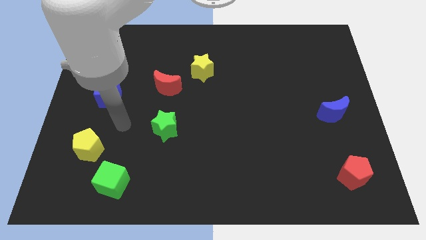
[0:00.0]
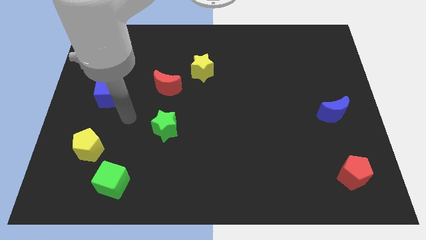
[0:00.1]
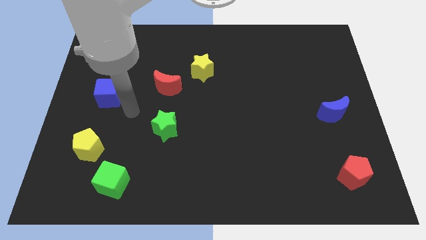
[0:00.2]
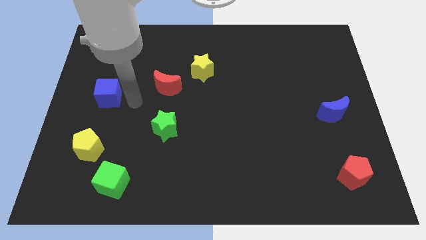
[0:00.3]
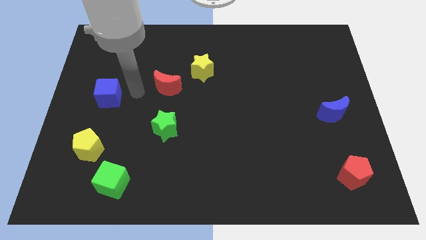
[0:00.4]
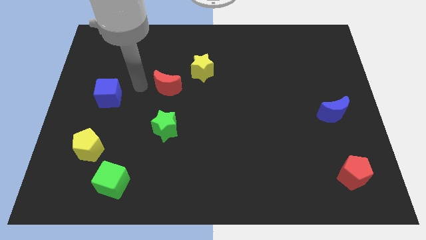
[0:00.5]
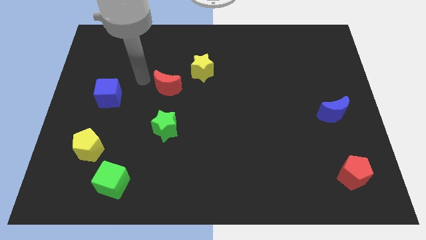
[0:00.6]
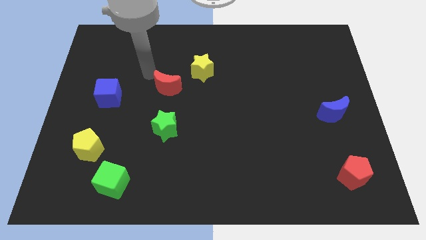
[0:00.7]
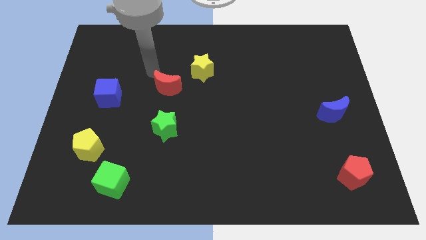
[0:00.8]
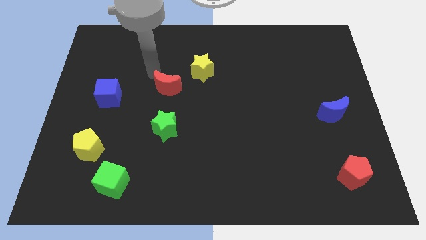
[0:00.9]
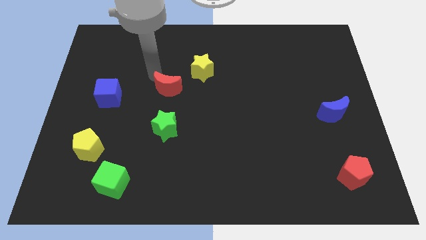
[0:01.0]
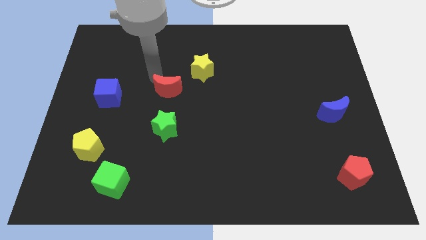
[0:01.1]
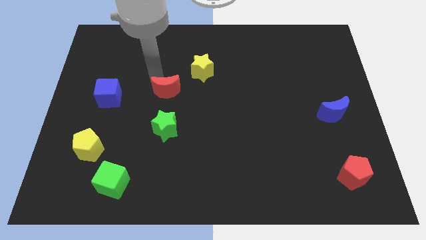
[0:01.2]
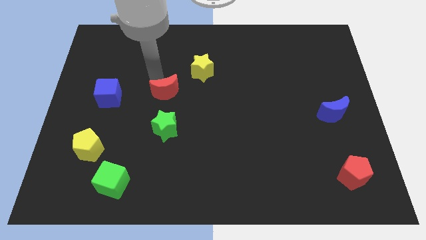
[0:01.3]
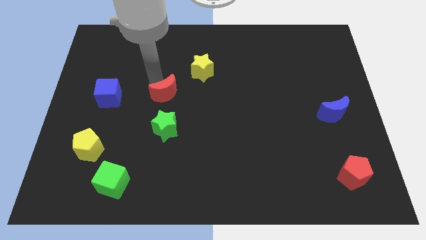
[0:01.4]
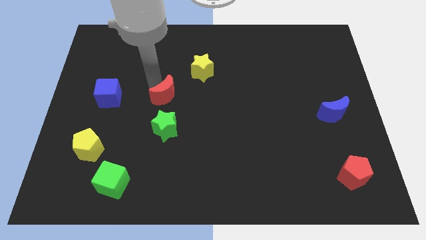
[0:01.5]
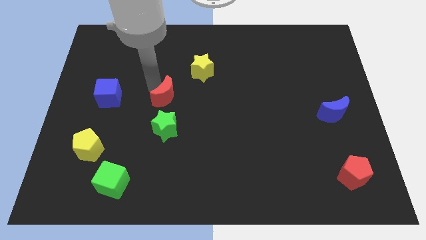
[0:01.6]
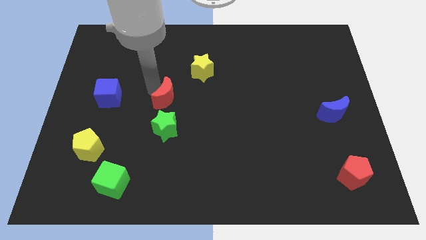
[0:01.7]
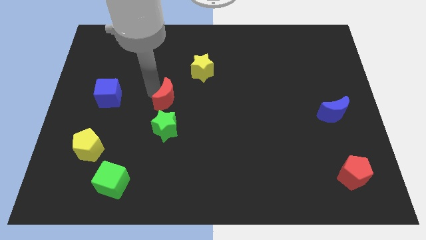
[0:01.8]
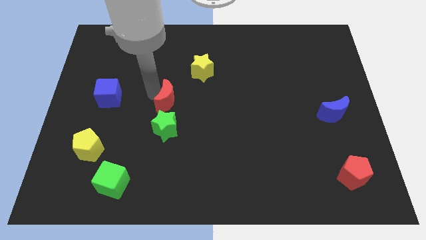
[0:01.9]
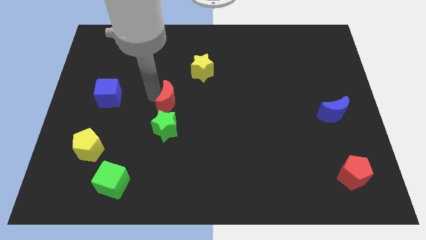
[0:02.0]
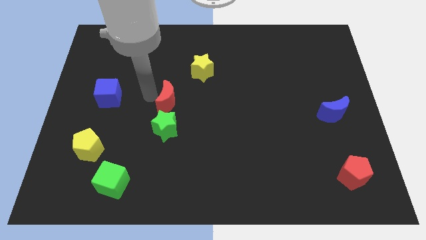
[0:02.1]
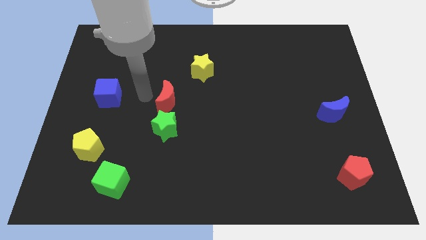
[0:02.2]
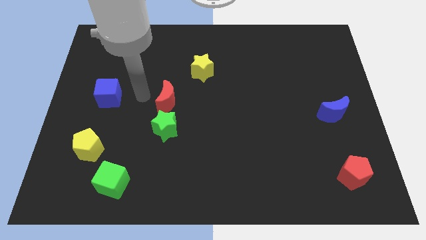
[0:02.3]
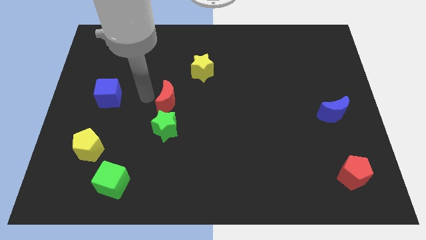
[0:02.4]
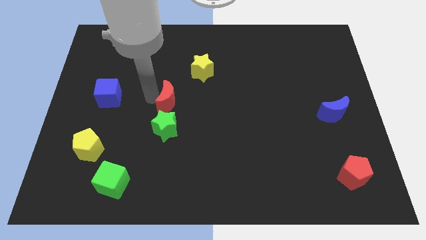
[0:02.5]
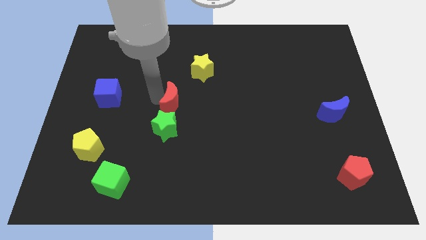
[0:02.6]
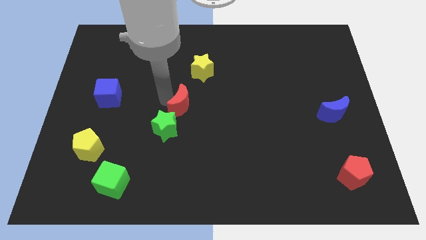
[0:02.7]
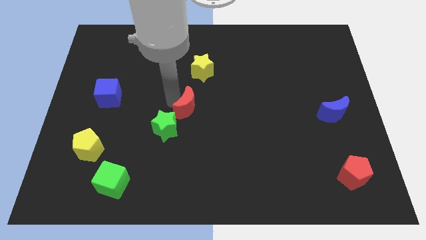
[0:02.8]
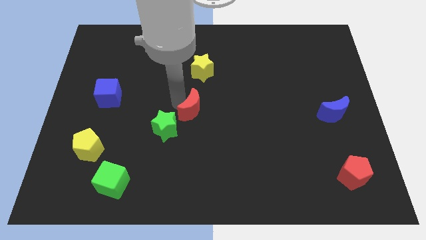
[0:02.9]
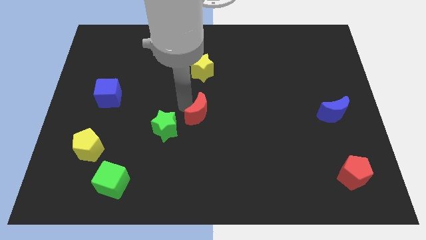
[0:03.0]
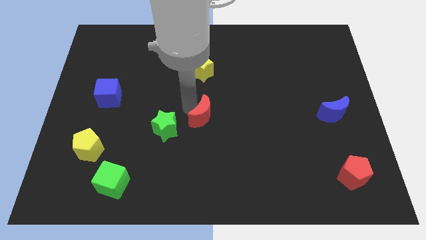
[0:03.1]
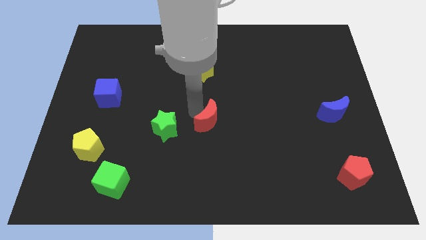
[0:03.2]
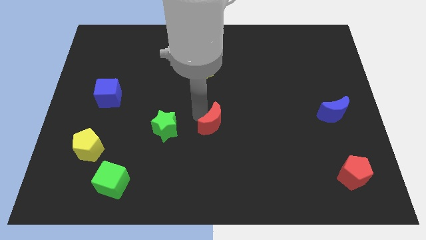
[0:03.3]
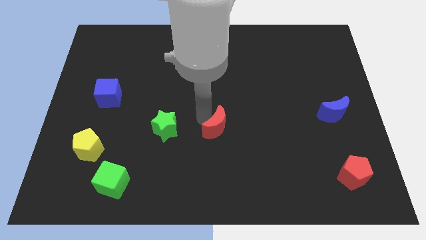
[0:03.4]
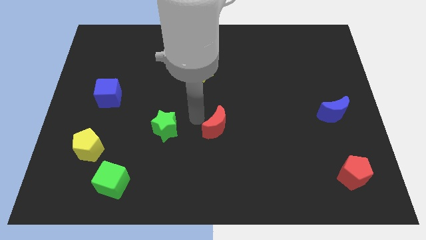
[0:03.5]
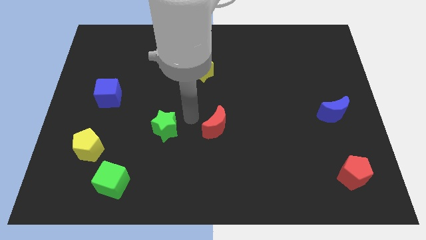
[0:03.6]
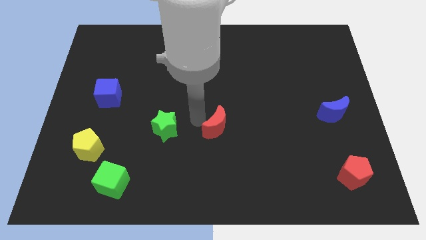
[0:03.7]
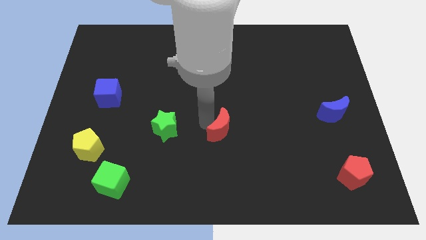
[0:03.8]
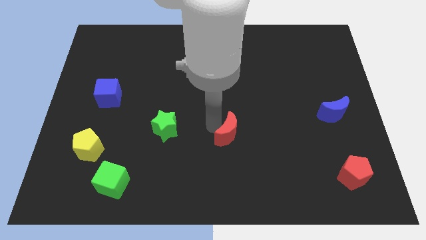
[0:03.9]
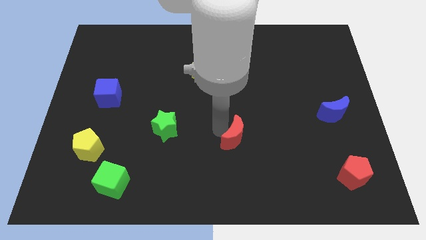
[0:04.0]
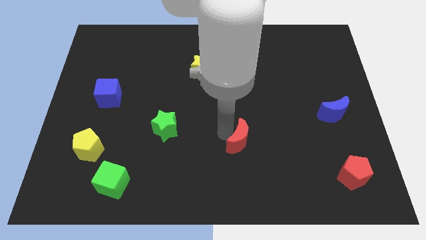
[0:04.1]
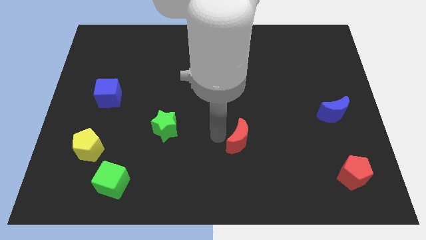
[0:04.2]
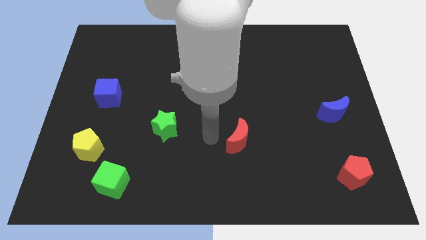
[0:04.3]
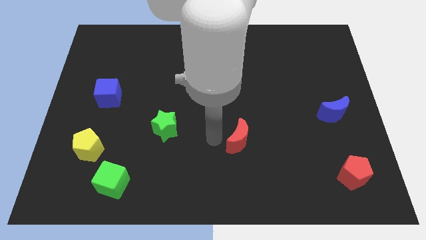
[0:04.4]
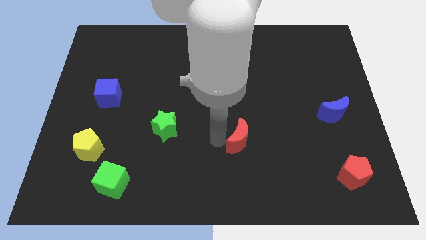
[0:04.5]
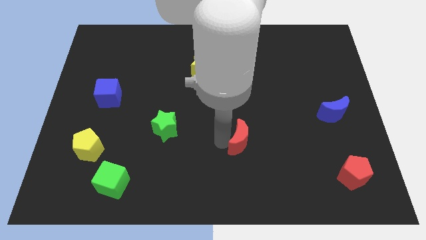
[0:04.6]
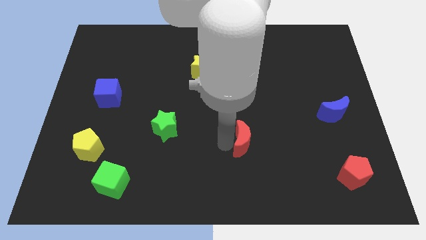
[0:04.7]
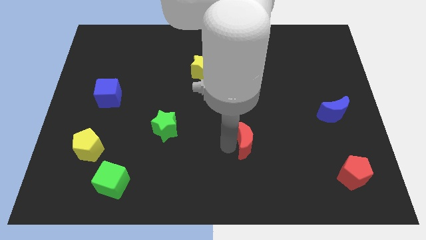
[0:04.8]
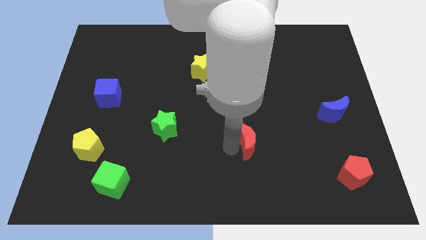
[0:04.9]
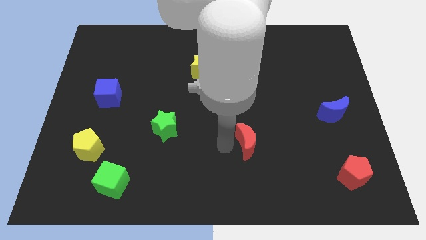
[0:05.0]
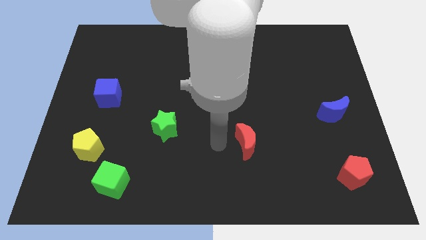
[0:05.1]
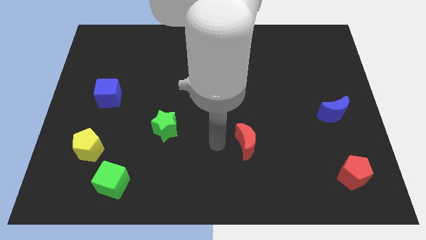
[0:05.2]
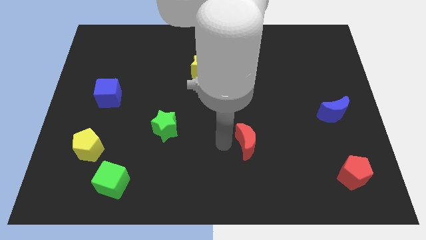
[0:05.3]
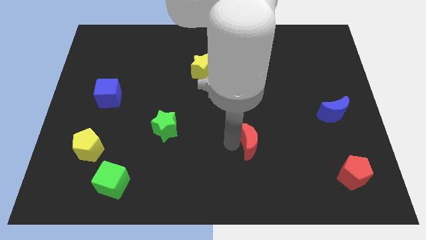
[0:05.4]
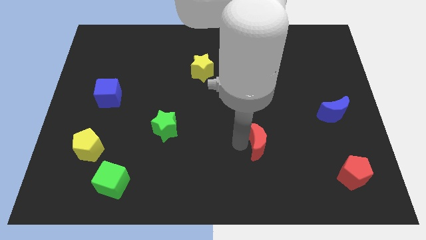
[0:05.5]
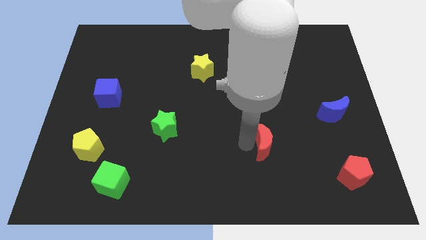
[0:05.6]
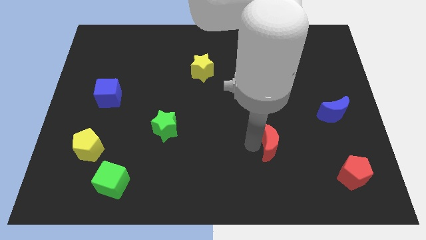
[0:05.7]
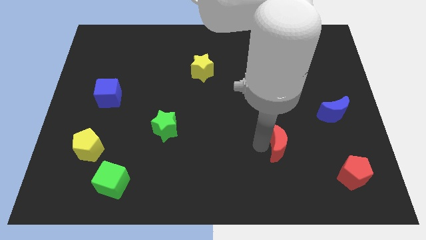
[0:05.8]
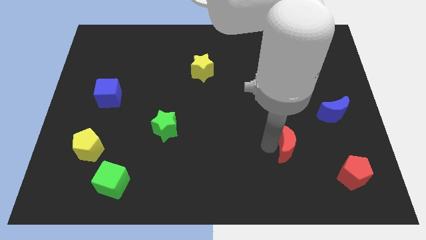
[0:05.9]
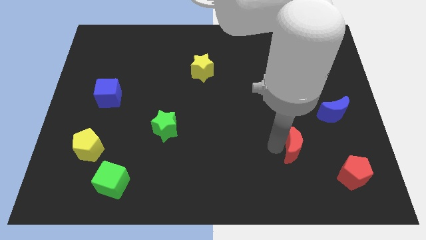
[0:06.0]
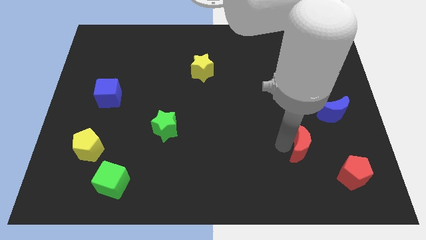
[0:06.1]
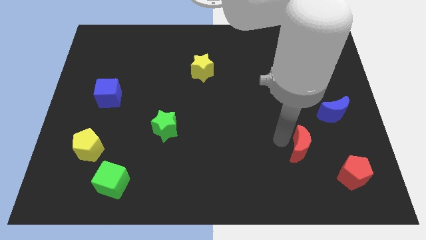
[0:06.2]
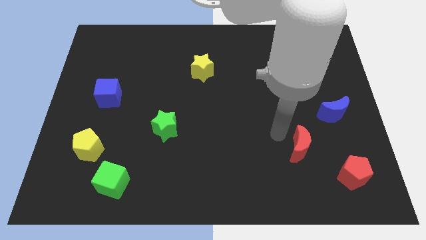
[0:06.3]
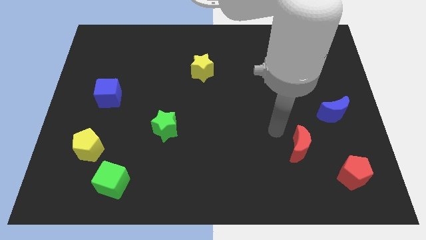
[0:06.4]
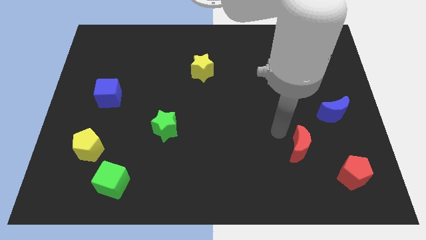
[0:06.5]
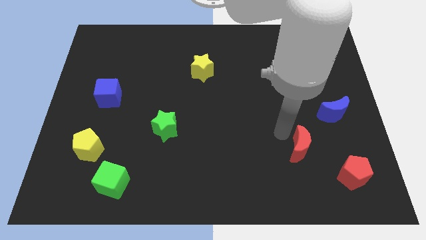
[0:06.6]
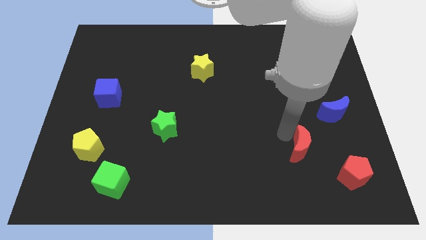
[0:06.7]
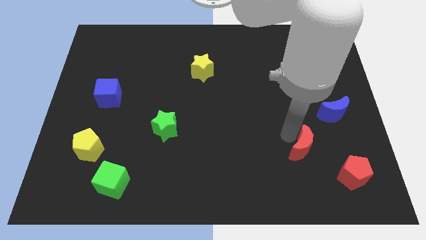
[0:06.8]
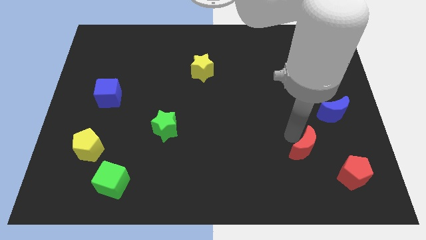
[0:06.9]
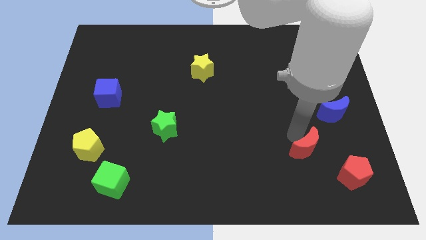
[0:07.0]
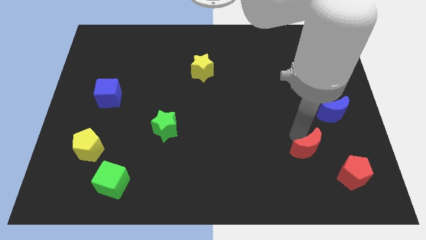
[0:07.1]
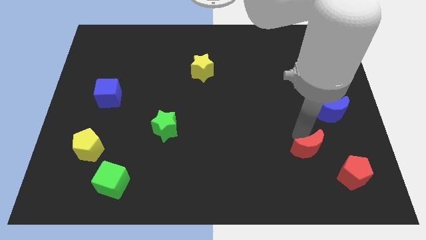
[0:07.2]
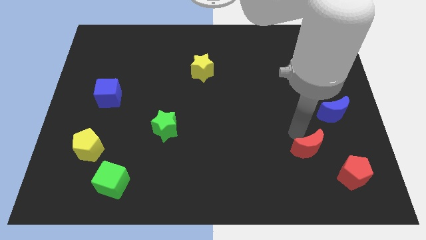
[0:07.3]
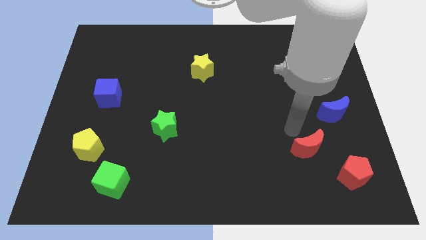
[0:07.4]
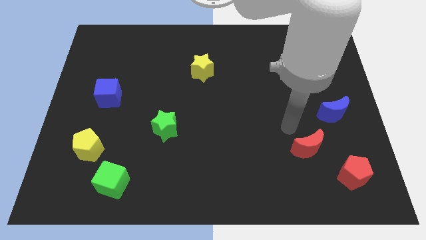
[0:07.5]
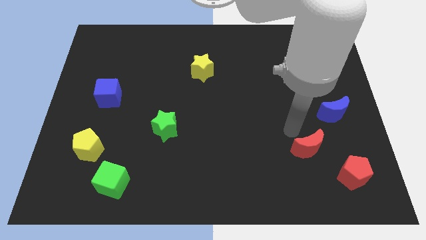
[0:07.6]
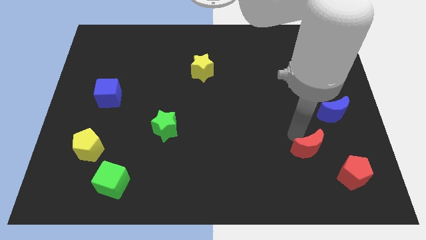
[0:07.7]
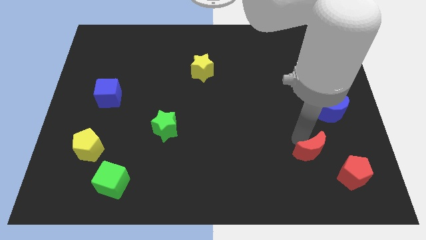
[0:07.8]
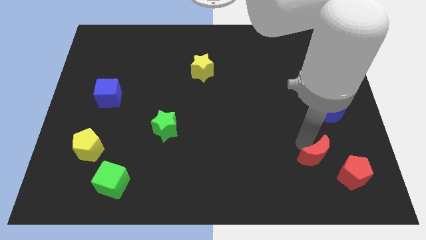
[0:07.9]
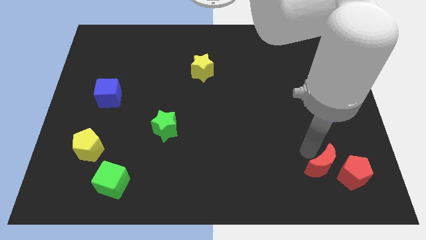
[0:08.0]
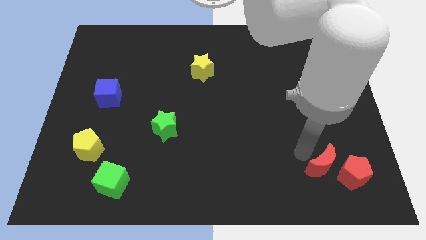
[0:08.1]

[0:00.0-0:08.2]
put the red moon to the red pentagon
